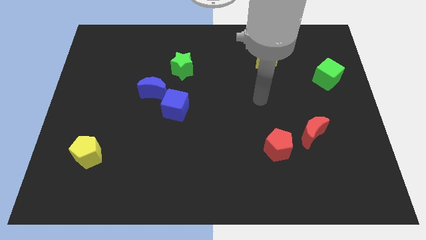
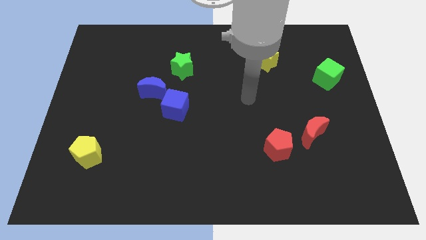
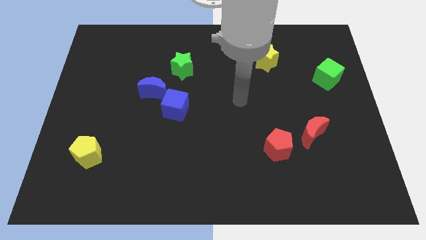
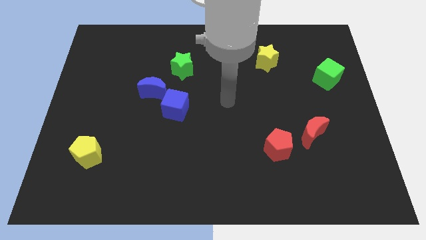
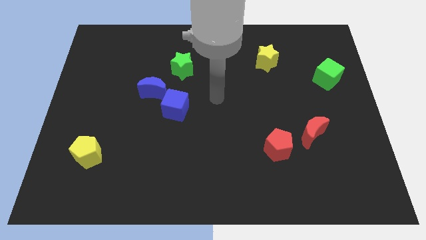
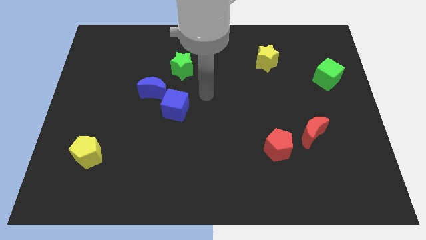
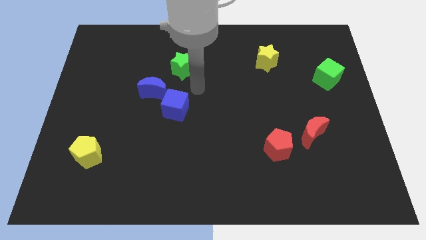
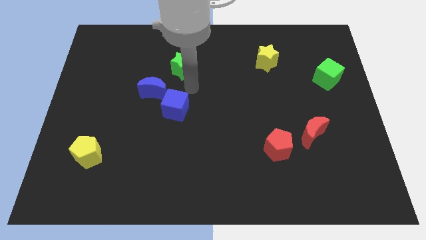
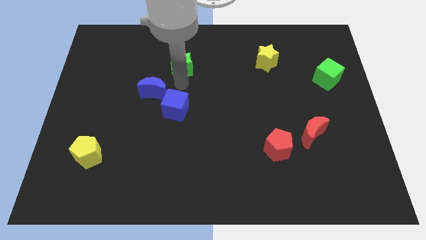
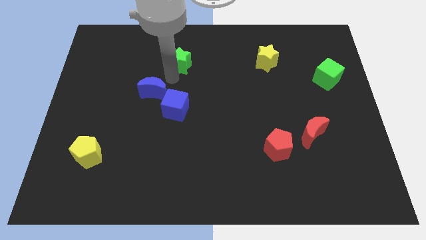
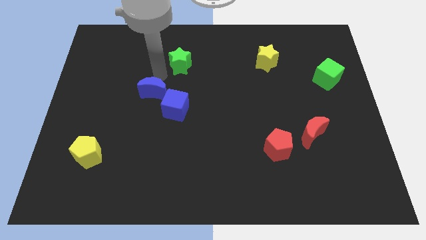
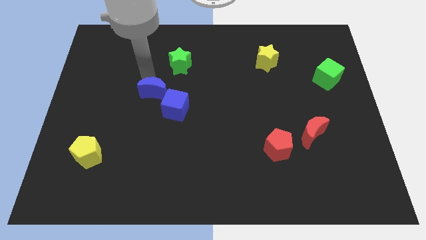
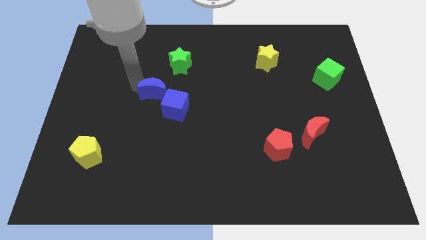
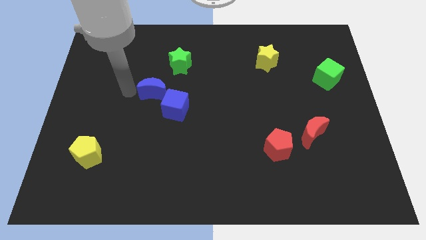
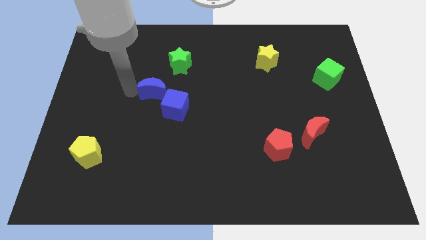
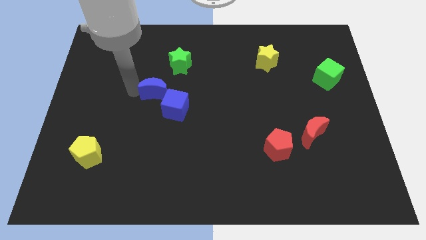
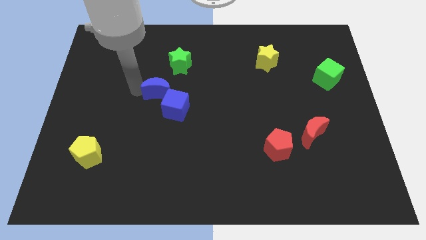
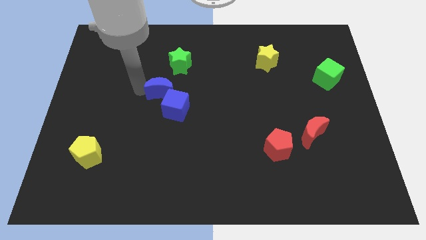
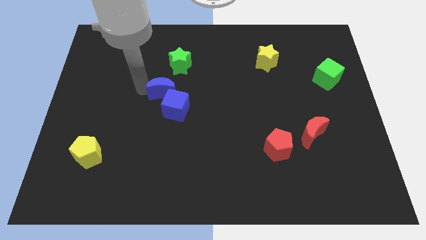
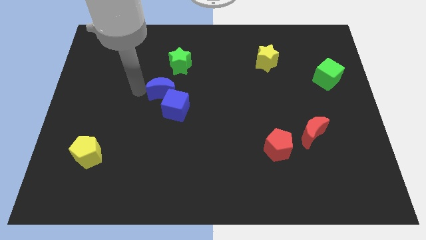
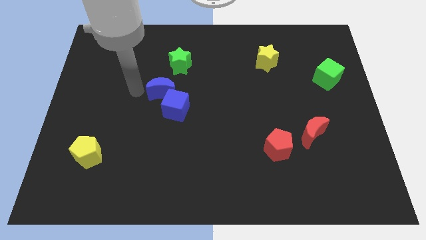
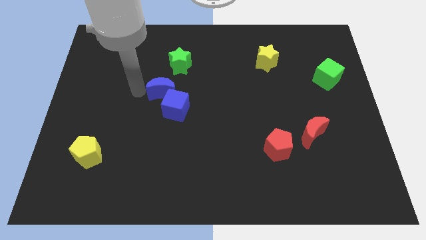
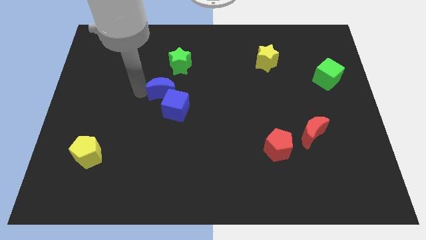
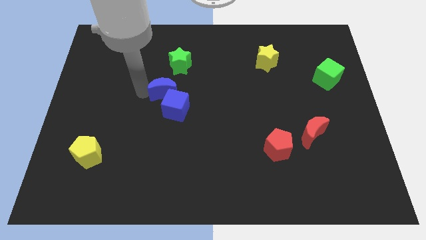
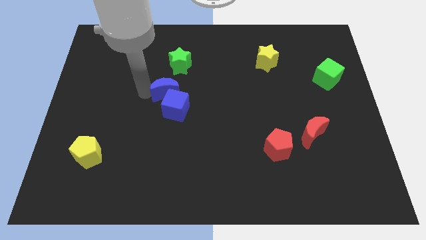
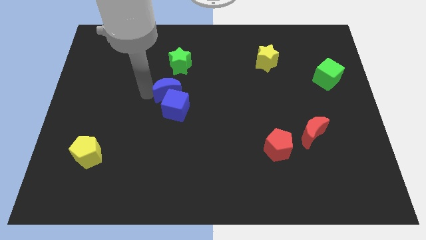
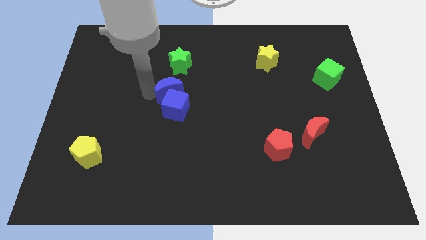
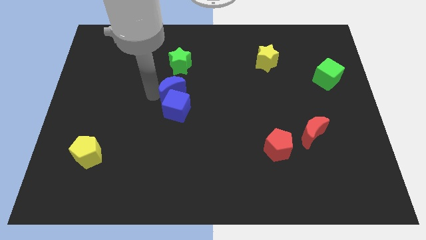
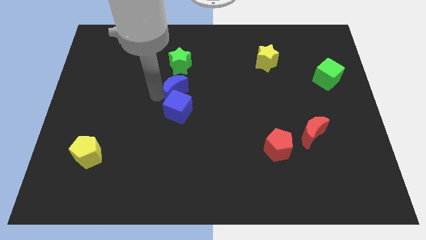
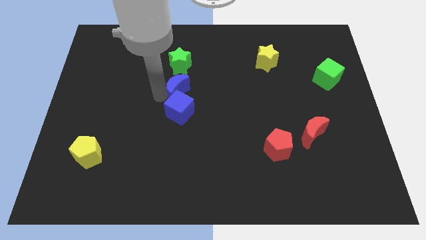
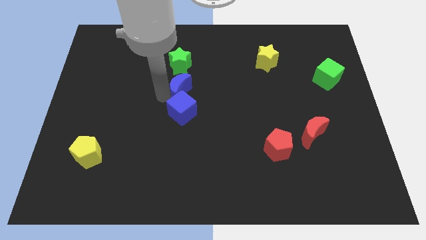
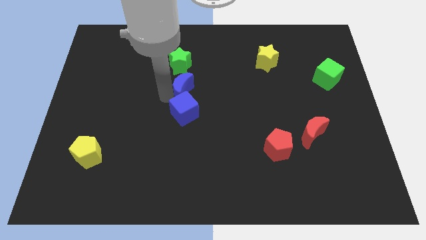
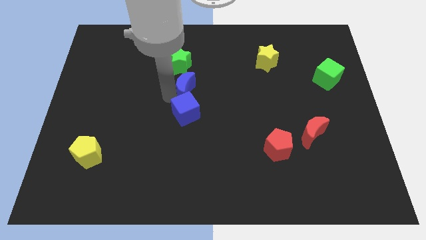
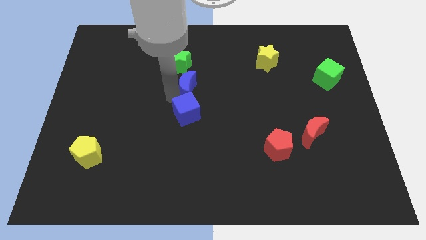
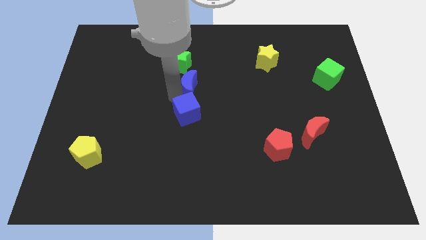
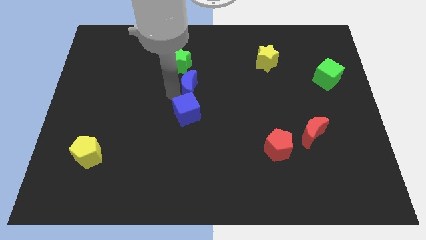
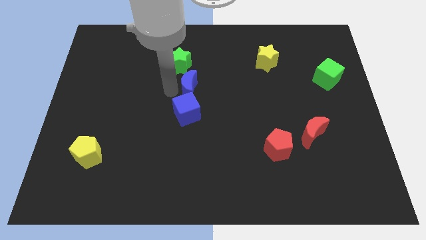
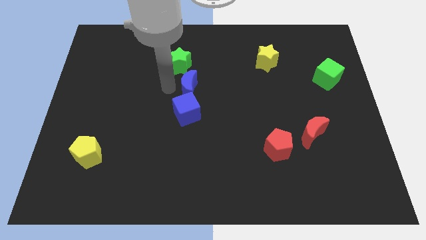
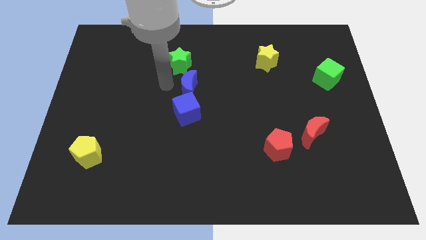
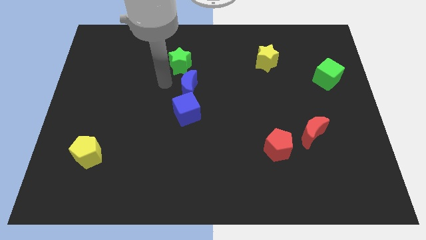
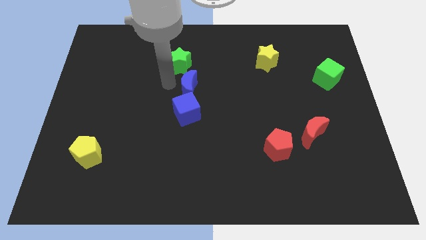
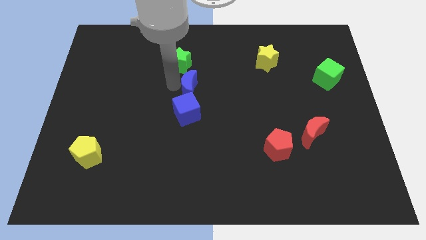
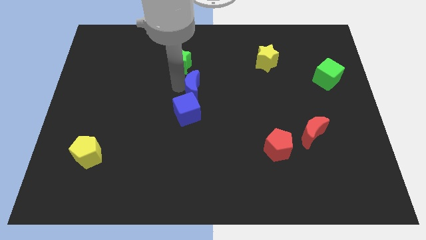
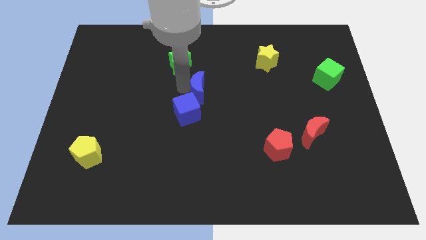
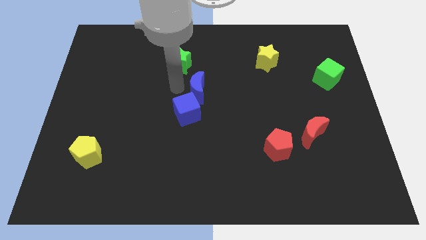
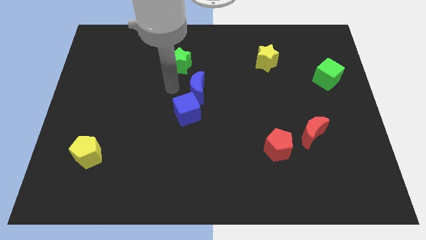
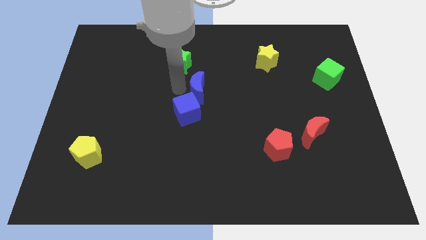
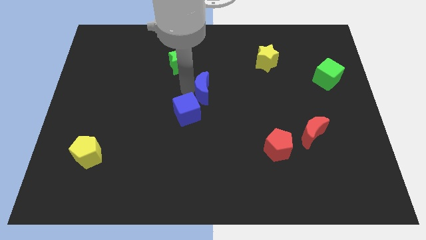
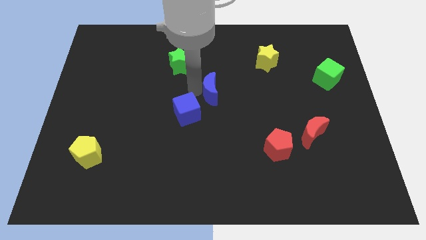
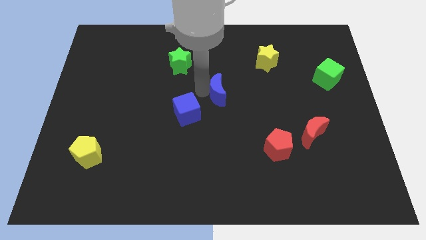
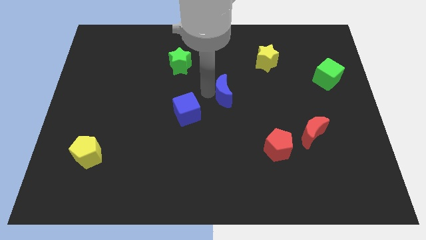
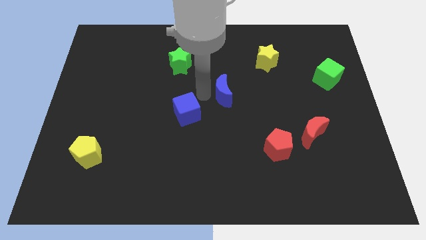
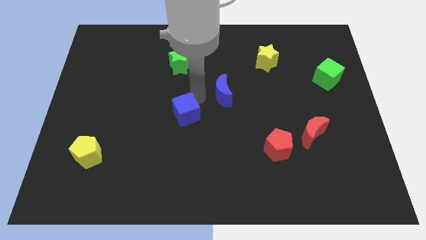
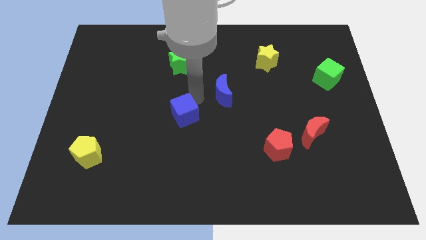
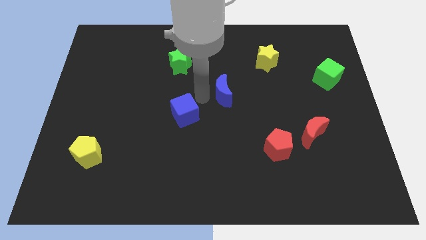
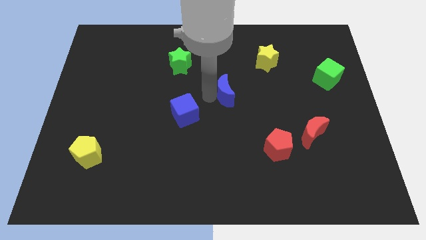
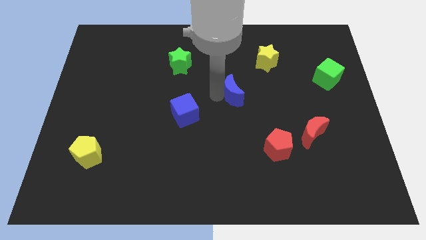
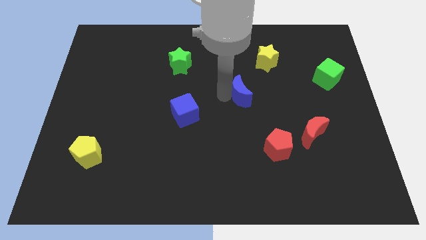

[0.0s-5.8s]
slide the blue moon right

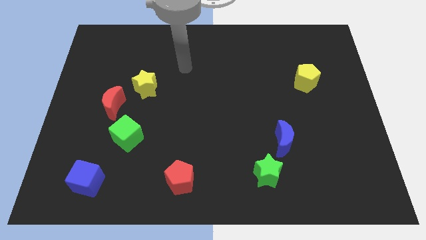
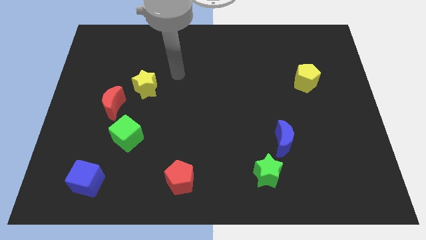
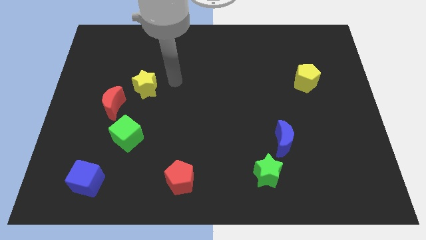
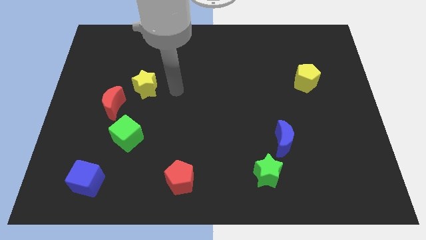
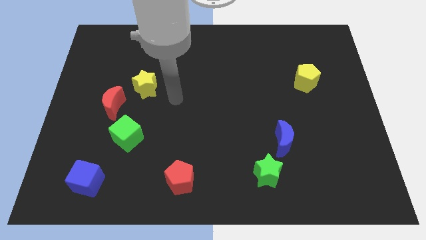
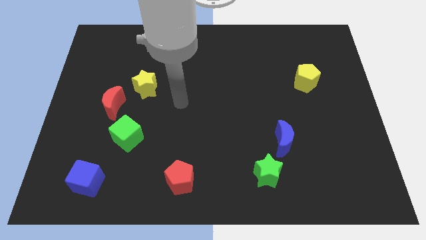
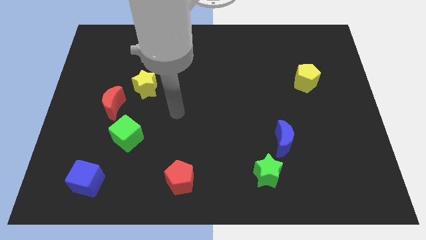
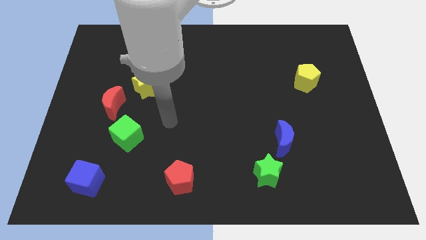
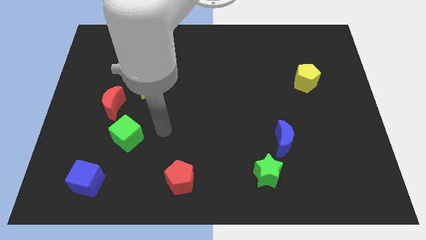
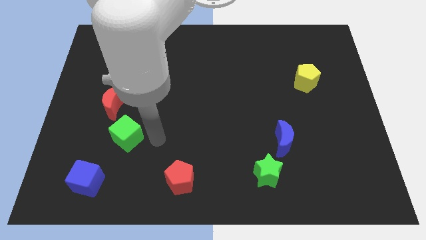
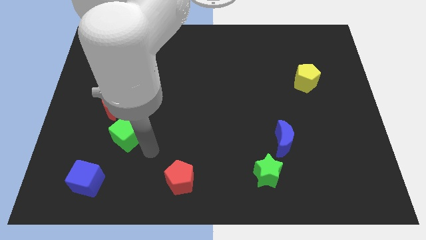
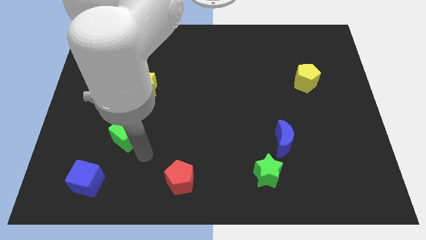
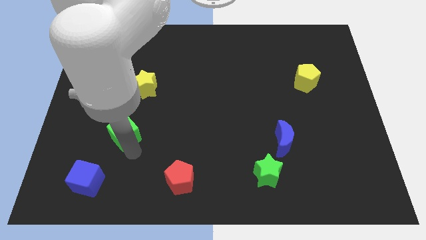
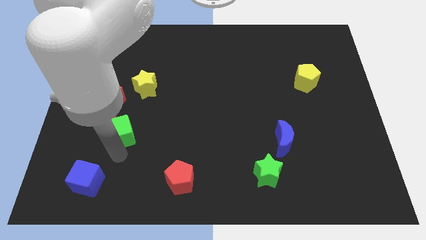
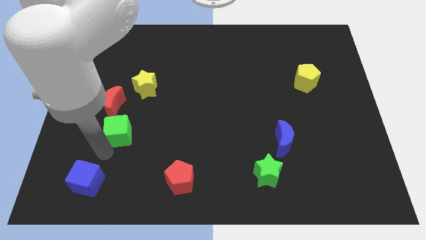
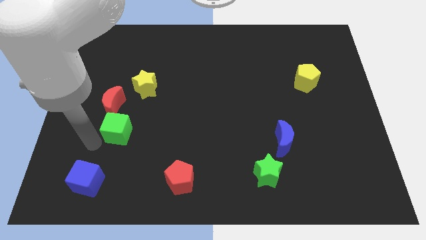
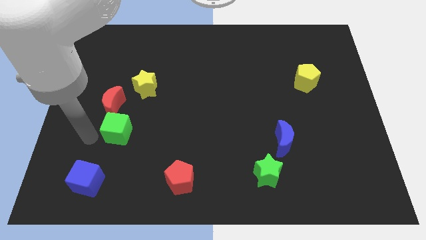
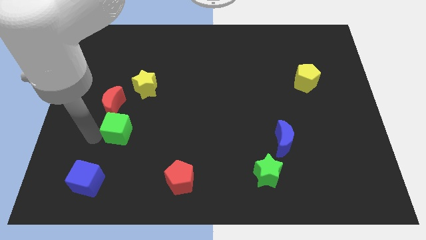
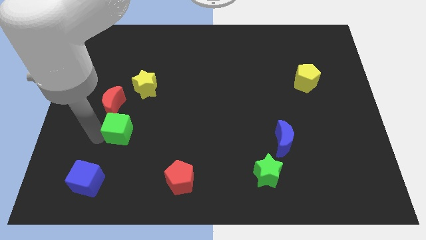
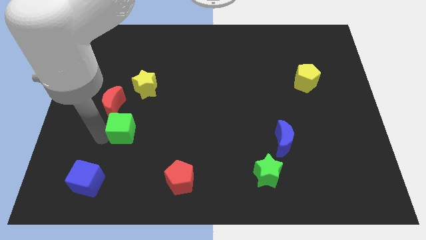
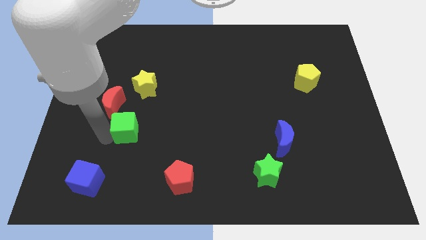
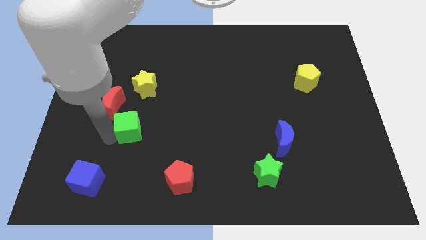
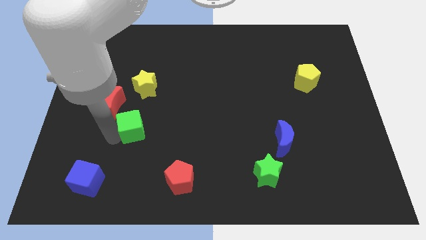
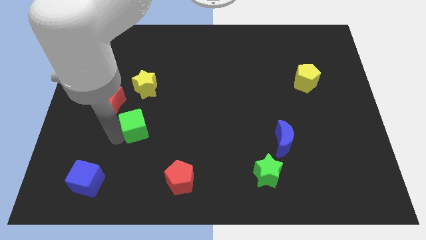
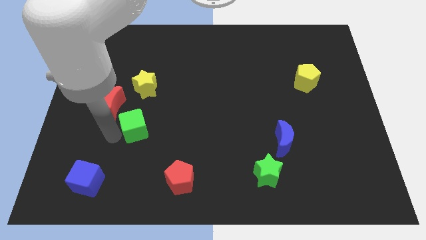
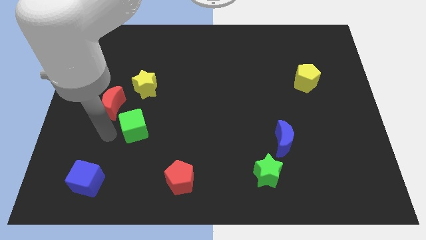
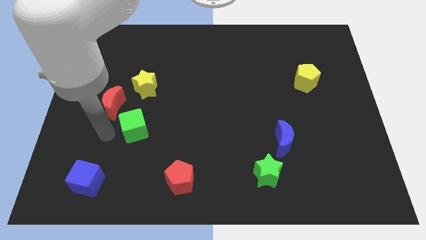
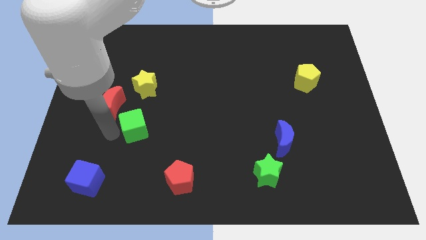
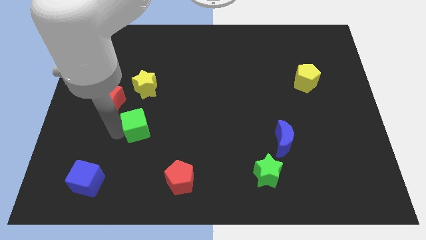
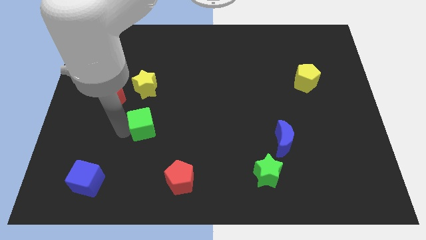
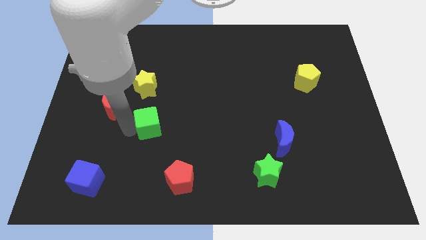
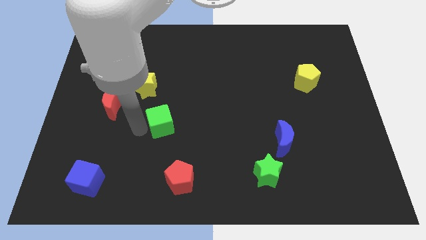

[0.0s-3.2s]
push the green cube a little bit upwards and to the right diagonally
